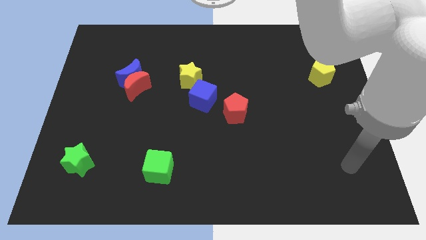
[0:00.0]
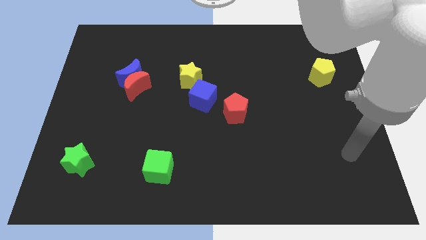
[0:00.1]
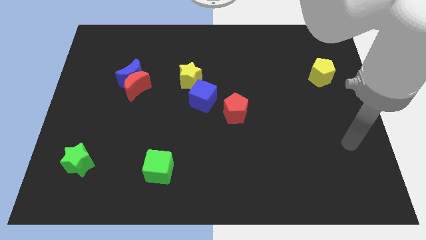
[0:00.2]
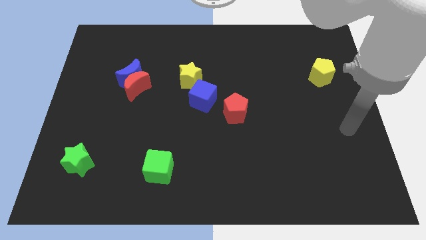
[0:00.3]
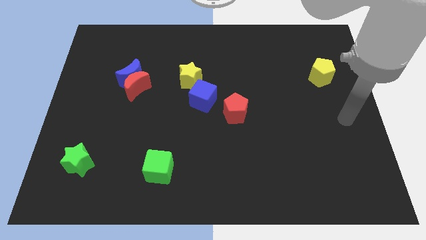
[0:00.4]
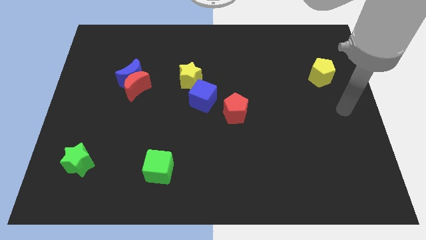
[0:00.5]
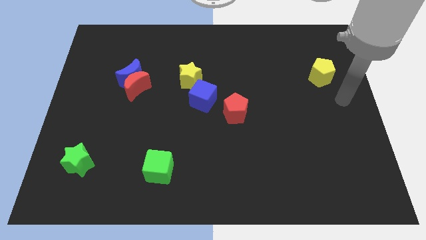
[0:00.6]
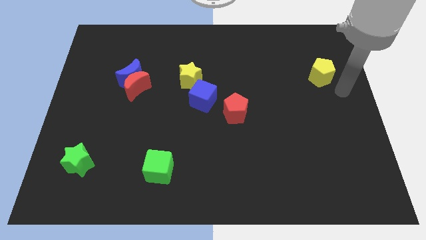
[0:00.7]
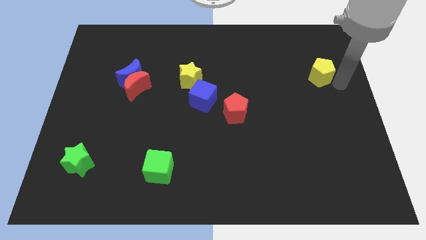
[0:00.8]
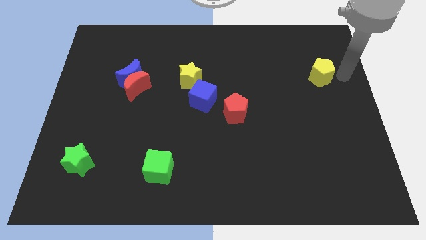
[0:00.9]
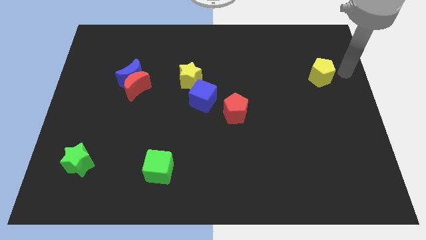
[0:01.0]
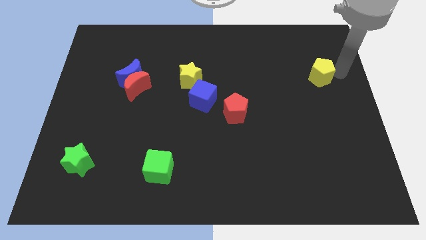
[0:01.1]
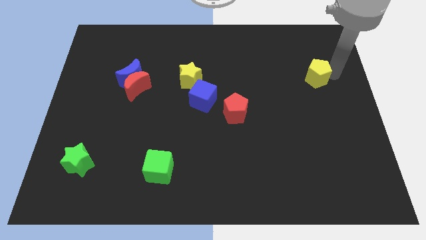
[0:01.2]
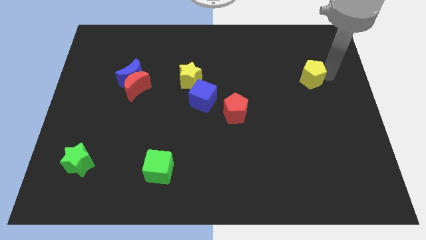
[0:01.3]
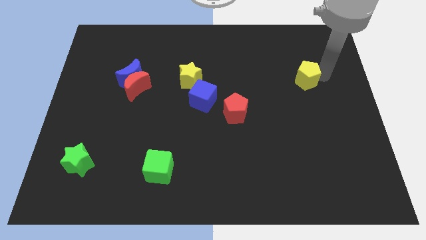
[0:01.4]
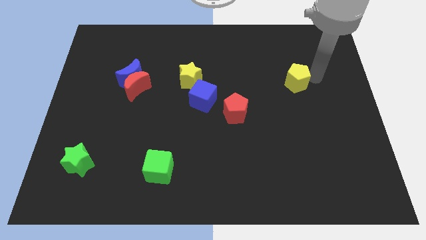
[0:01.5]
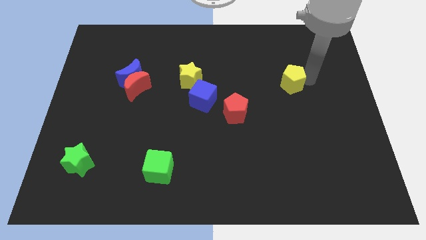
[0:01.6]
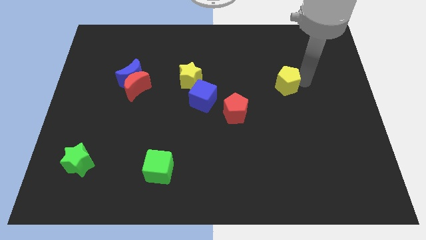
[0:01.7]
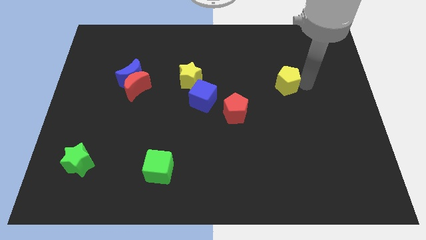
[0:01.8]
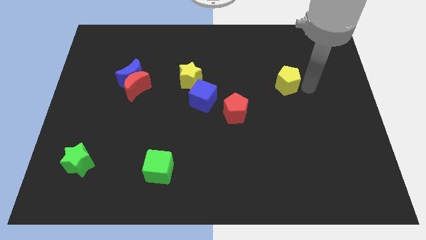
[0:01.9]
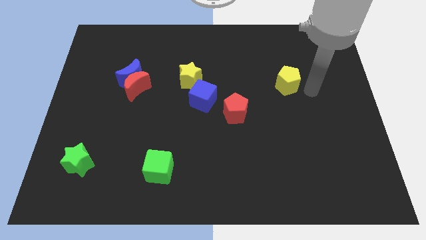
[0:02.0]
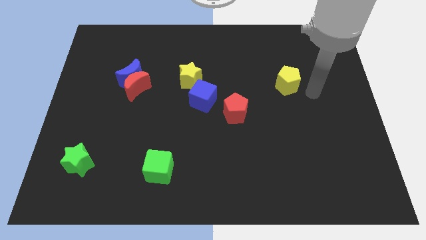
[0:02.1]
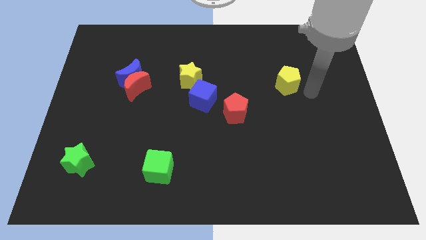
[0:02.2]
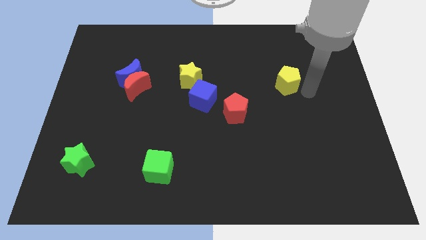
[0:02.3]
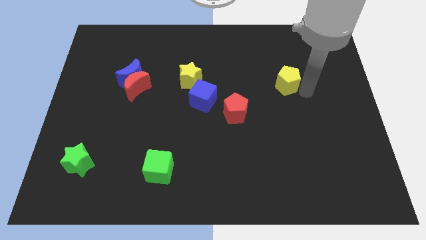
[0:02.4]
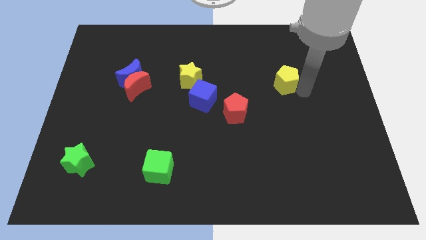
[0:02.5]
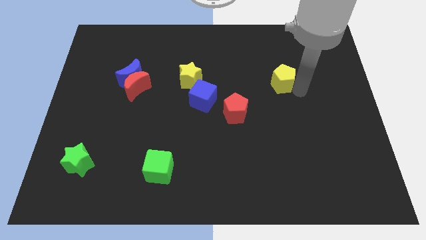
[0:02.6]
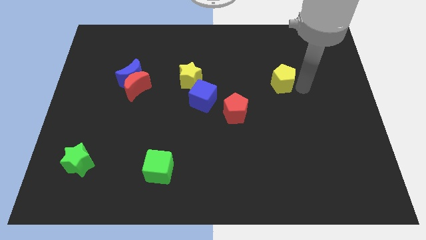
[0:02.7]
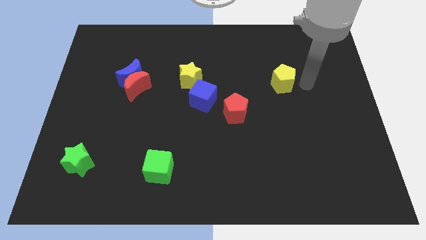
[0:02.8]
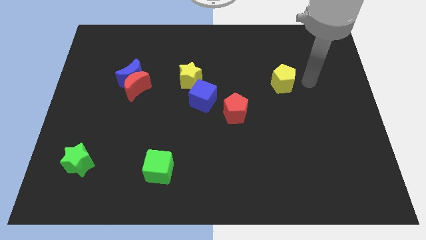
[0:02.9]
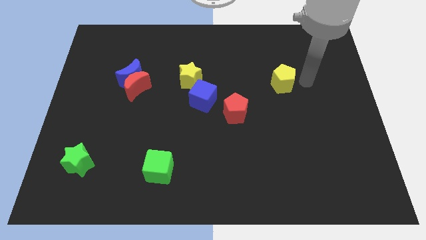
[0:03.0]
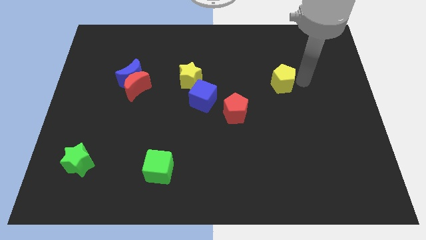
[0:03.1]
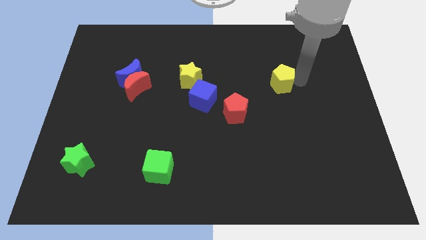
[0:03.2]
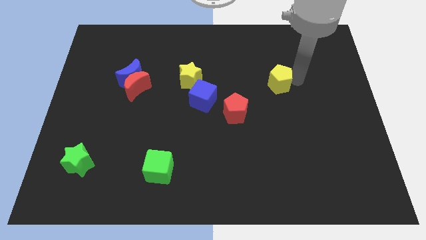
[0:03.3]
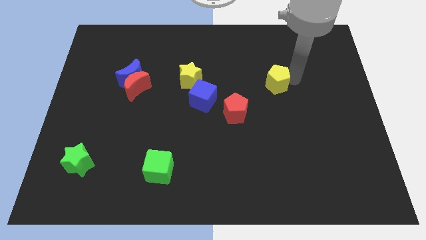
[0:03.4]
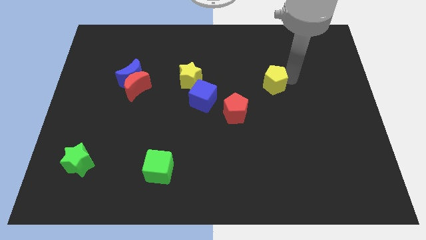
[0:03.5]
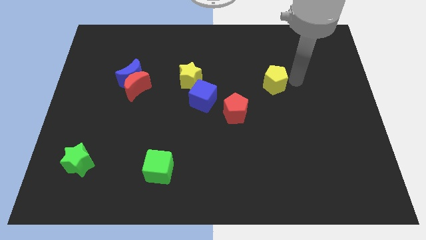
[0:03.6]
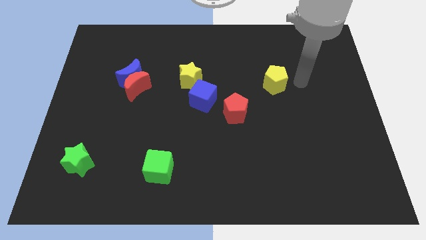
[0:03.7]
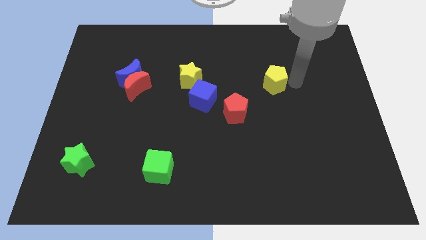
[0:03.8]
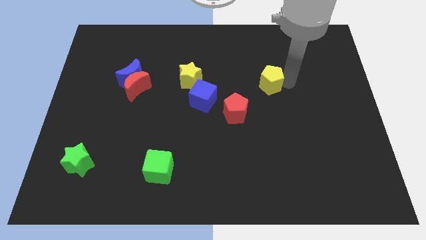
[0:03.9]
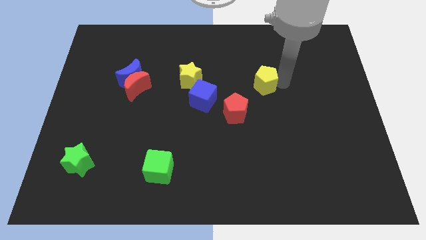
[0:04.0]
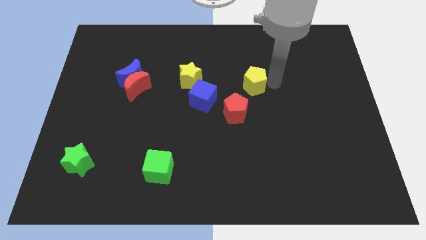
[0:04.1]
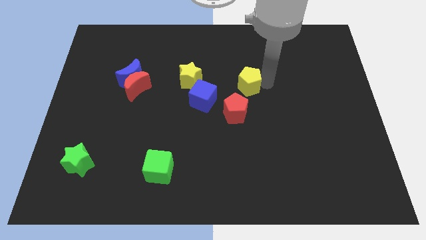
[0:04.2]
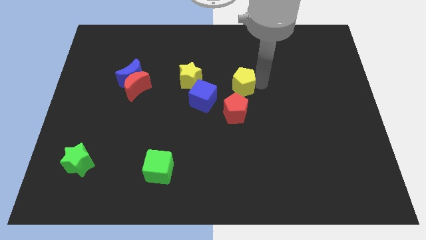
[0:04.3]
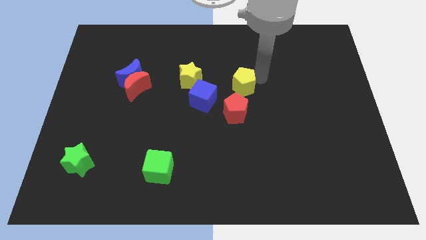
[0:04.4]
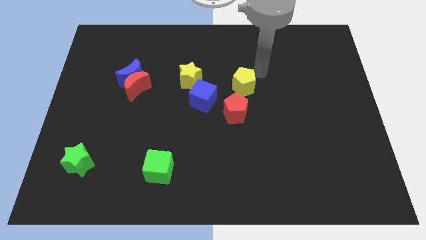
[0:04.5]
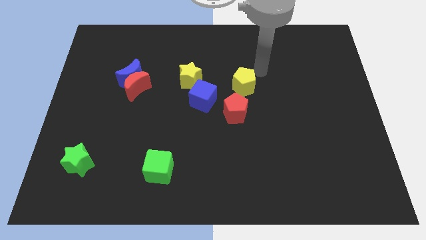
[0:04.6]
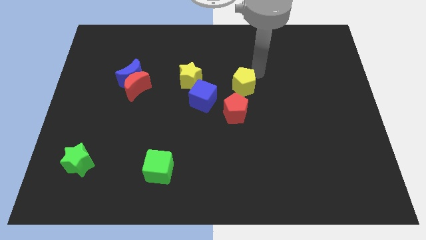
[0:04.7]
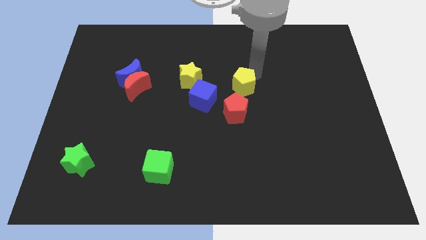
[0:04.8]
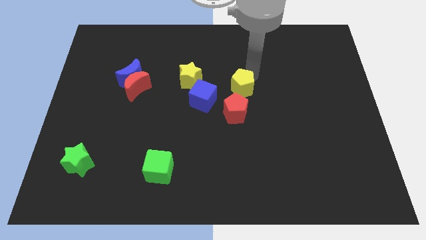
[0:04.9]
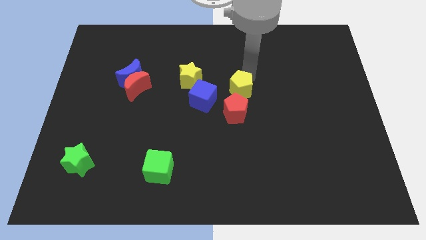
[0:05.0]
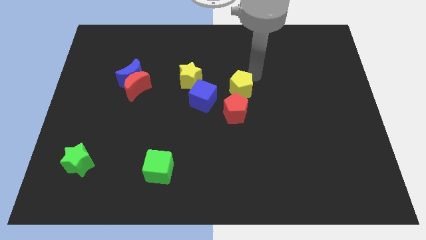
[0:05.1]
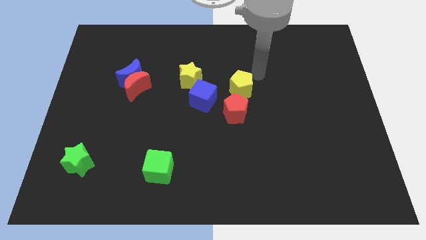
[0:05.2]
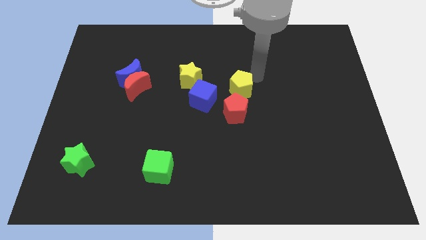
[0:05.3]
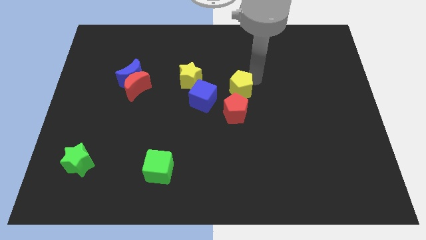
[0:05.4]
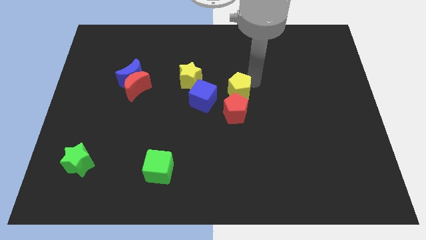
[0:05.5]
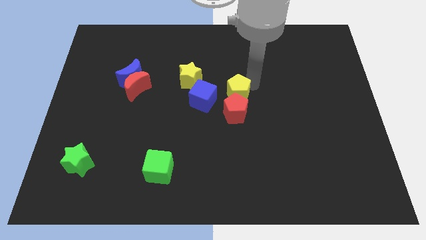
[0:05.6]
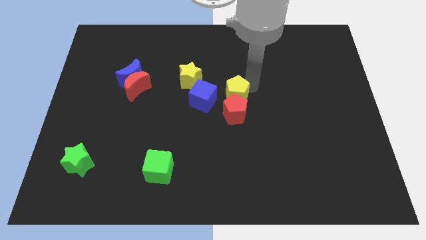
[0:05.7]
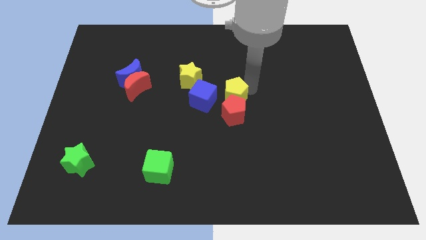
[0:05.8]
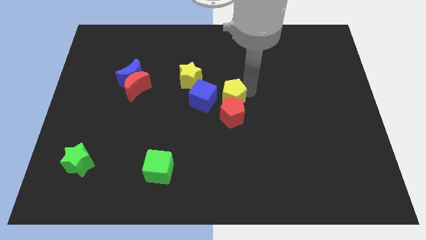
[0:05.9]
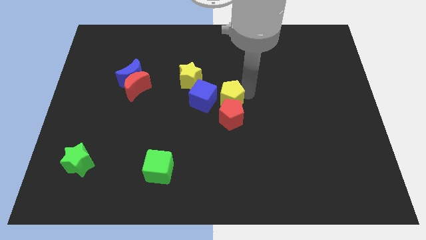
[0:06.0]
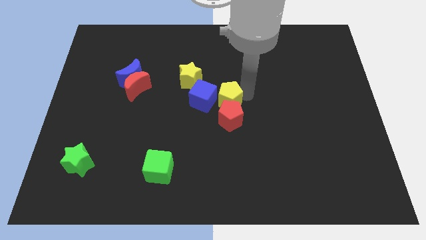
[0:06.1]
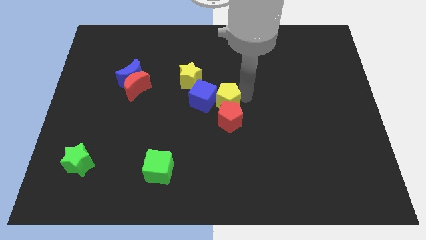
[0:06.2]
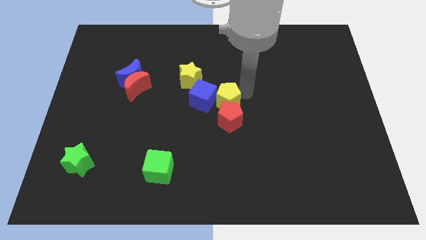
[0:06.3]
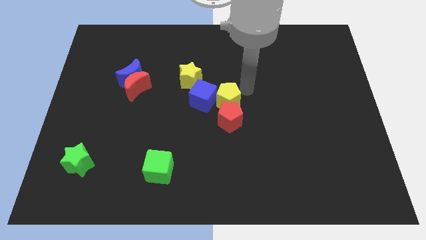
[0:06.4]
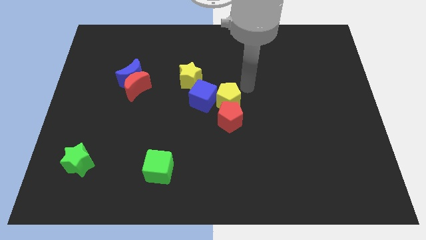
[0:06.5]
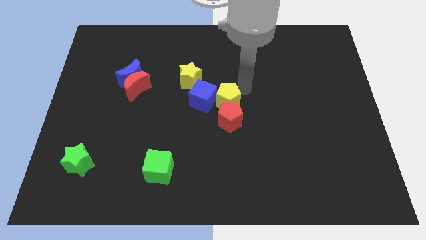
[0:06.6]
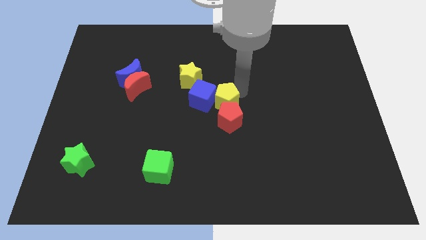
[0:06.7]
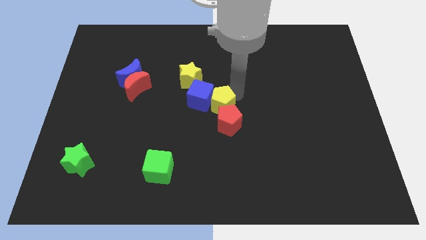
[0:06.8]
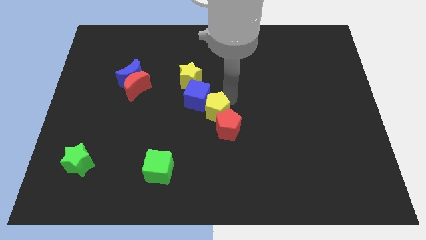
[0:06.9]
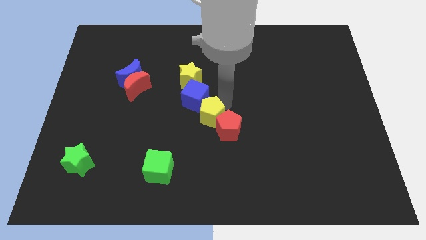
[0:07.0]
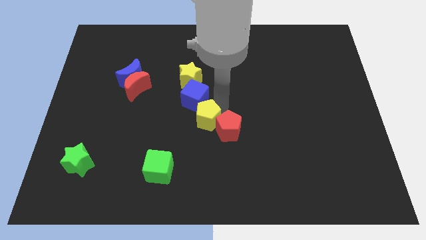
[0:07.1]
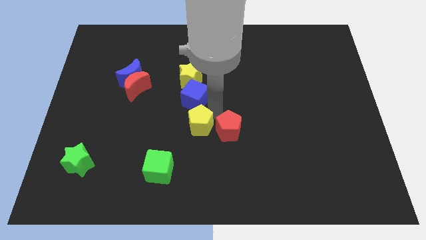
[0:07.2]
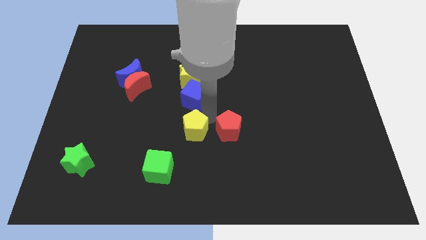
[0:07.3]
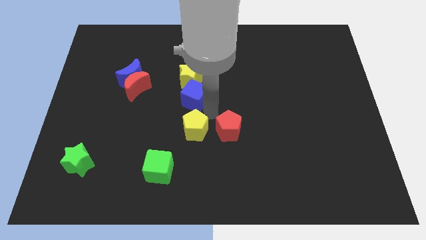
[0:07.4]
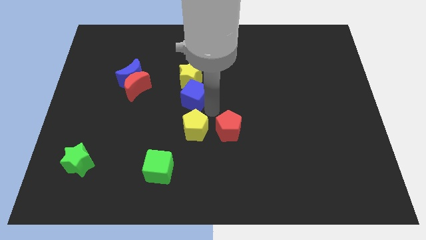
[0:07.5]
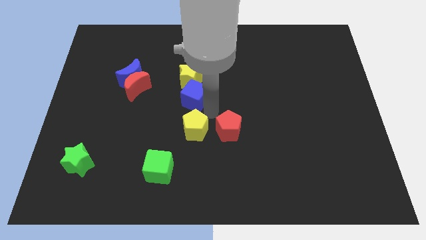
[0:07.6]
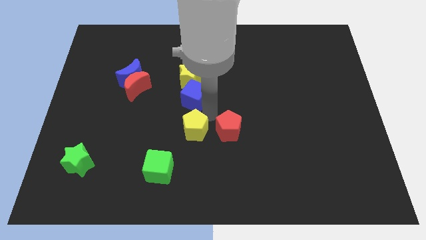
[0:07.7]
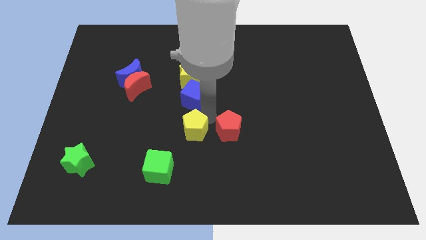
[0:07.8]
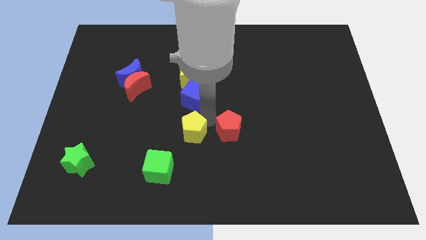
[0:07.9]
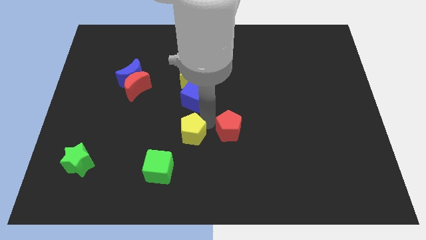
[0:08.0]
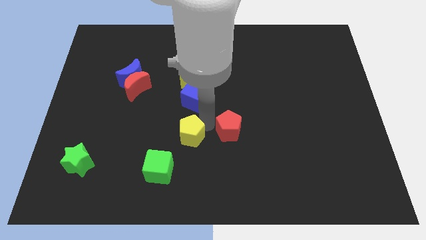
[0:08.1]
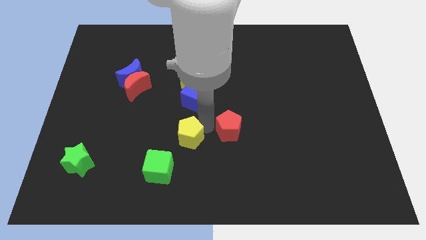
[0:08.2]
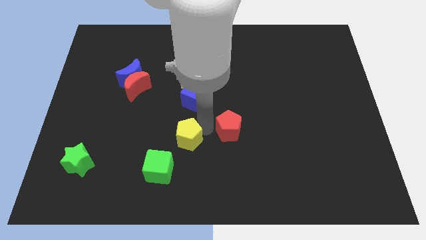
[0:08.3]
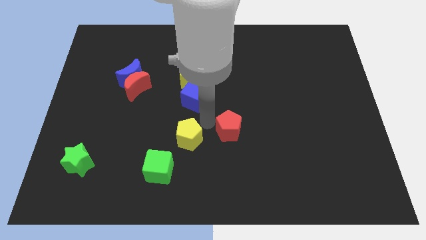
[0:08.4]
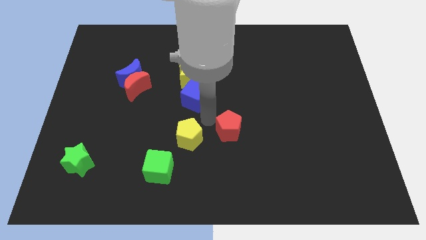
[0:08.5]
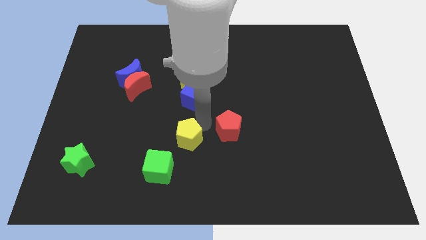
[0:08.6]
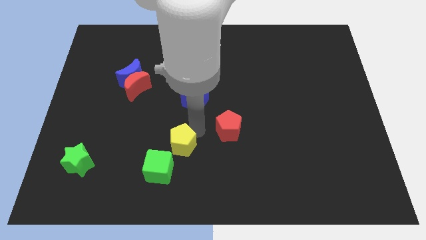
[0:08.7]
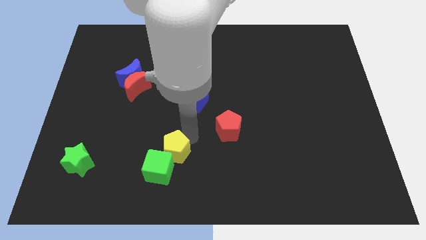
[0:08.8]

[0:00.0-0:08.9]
put the yellow pentagon to the green cube
